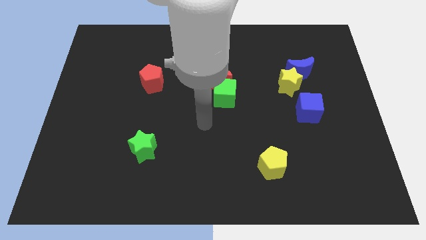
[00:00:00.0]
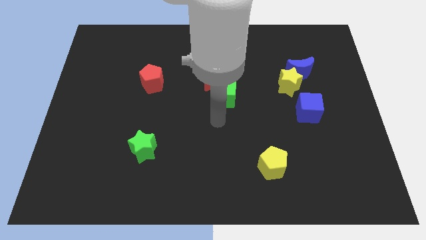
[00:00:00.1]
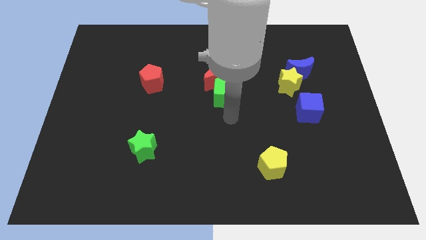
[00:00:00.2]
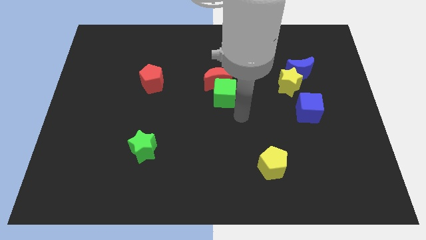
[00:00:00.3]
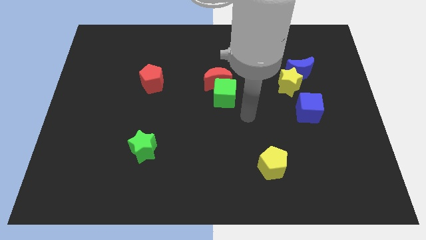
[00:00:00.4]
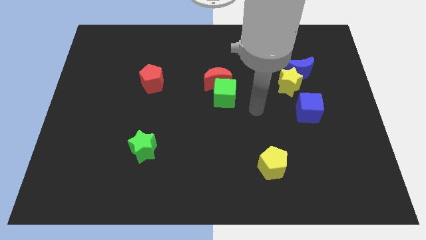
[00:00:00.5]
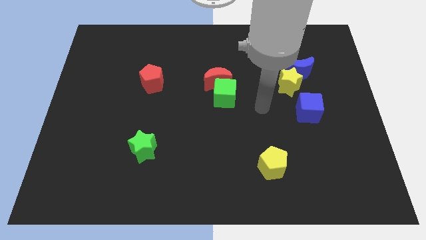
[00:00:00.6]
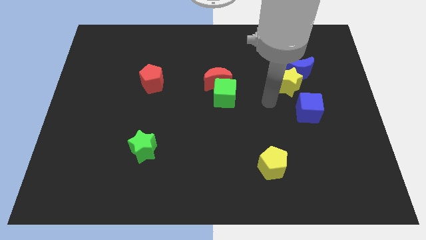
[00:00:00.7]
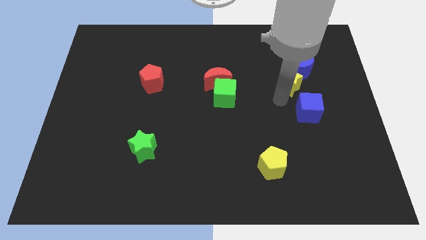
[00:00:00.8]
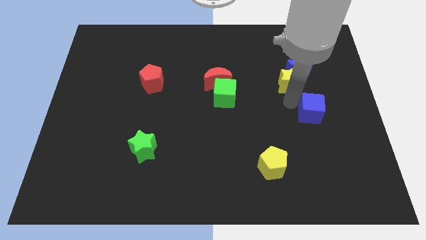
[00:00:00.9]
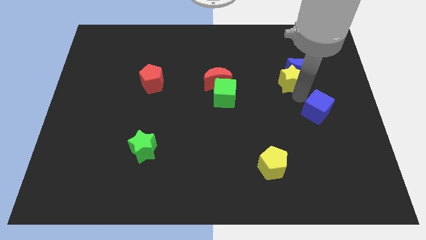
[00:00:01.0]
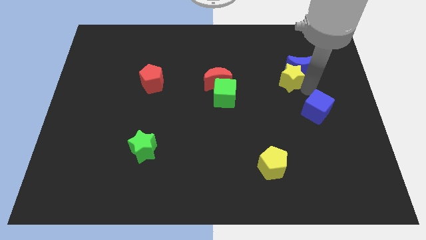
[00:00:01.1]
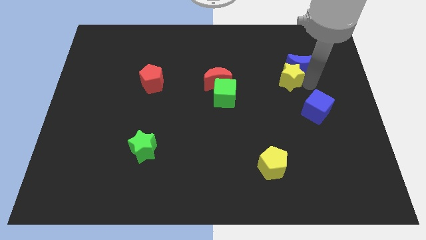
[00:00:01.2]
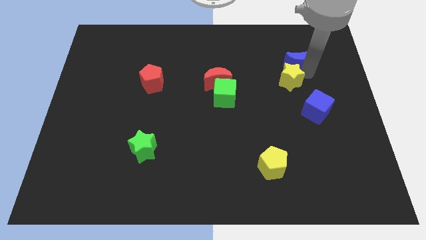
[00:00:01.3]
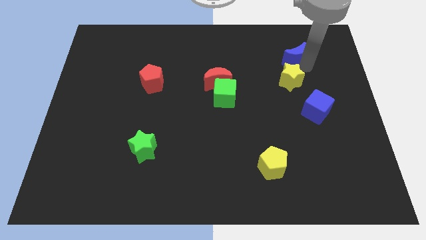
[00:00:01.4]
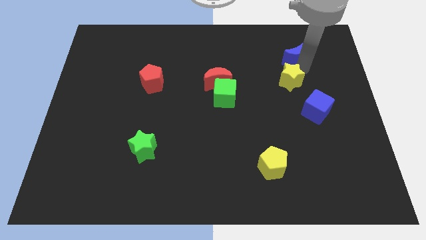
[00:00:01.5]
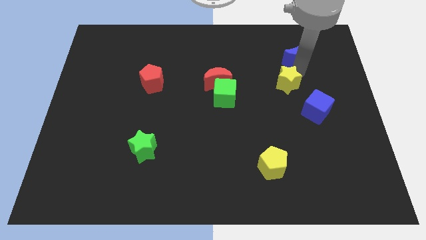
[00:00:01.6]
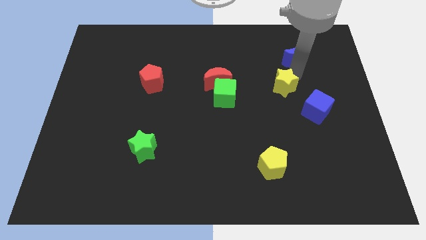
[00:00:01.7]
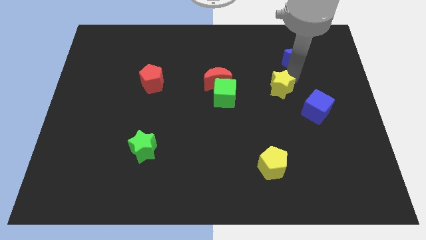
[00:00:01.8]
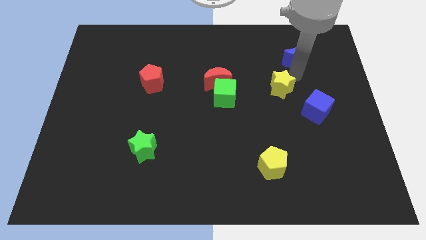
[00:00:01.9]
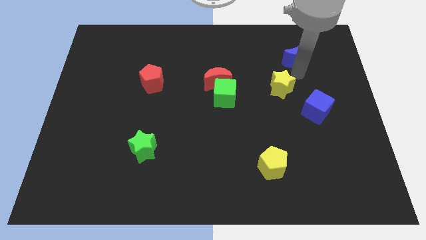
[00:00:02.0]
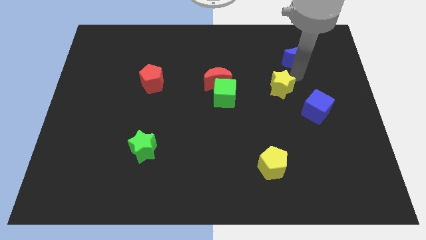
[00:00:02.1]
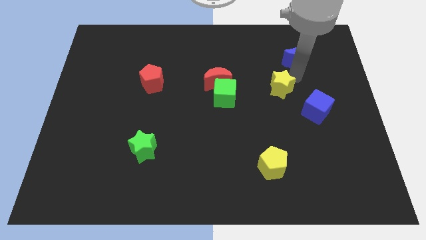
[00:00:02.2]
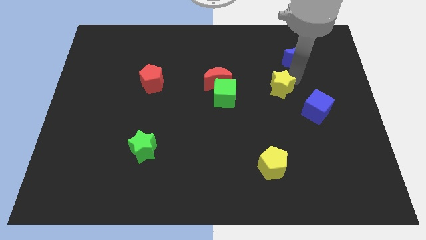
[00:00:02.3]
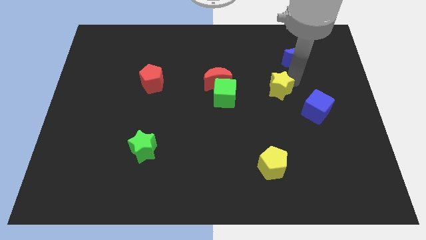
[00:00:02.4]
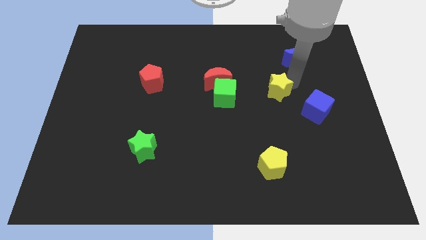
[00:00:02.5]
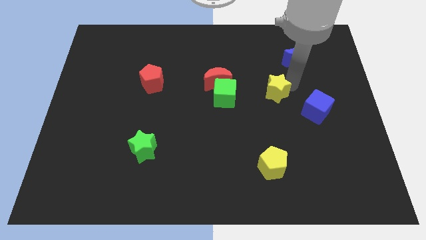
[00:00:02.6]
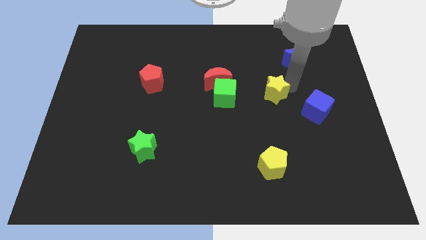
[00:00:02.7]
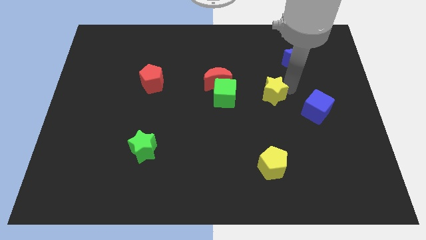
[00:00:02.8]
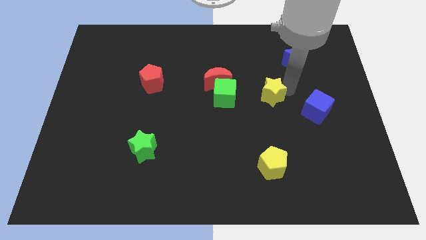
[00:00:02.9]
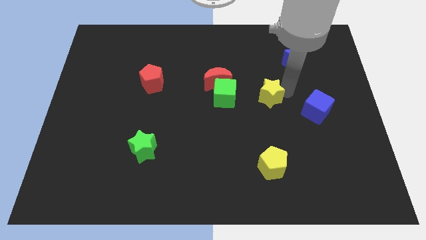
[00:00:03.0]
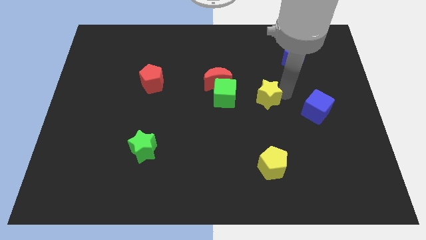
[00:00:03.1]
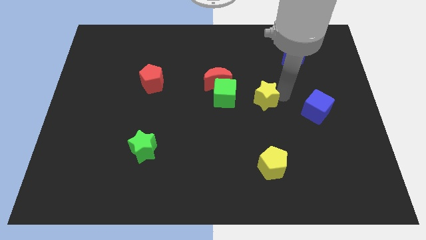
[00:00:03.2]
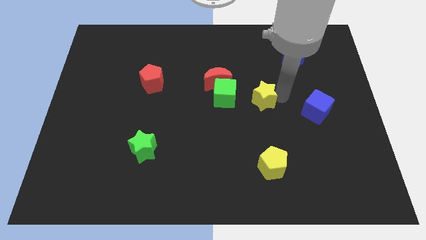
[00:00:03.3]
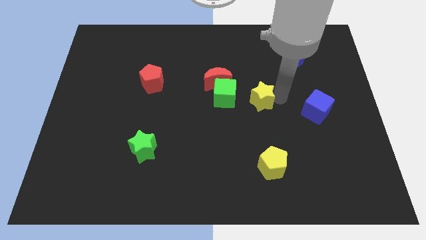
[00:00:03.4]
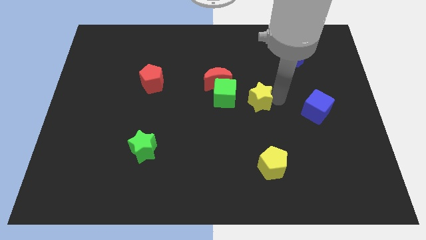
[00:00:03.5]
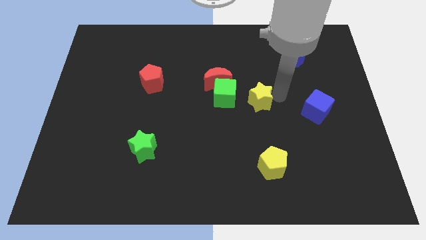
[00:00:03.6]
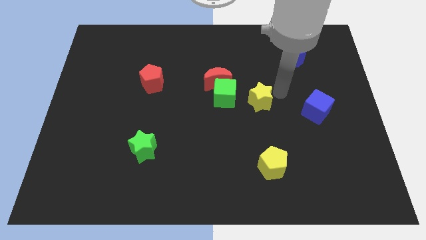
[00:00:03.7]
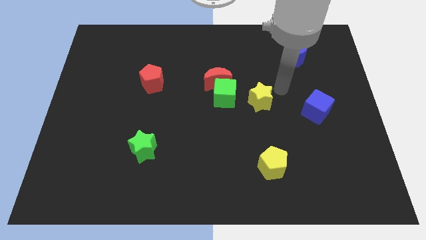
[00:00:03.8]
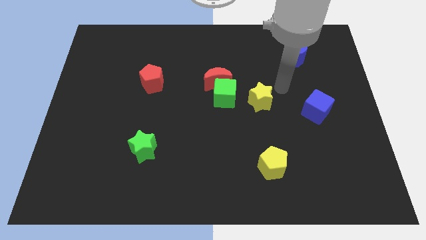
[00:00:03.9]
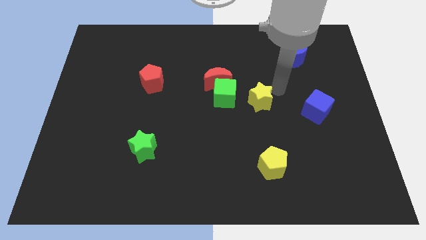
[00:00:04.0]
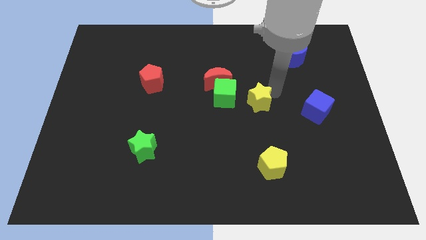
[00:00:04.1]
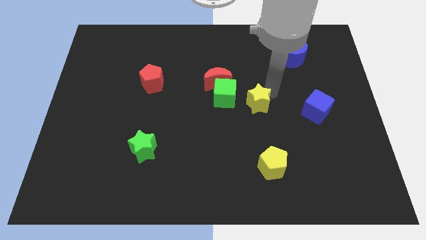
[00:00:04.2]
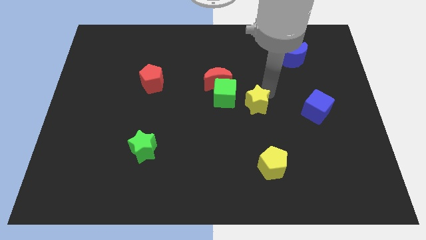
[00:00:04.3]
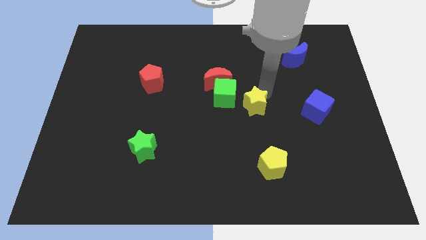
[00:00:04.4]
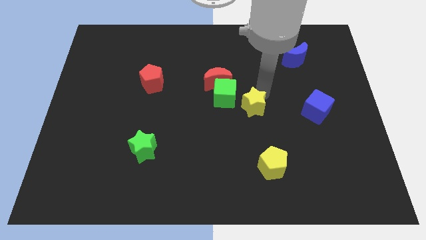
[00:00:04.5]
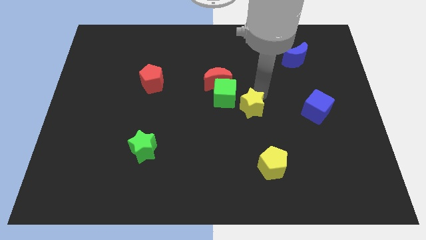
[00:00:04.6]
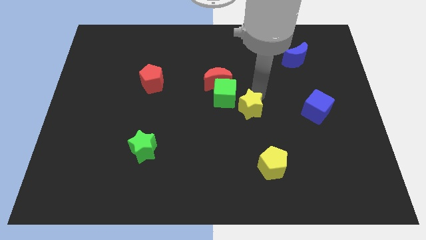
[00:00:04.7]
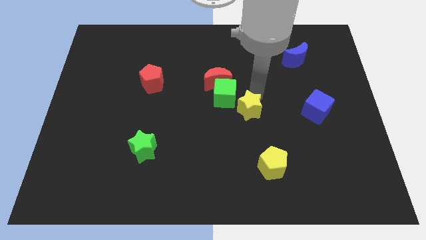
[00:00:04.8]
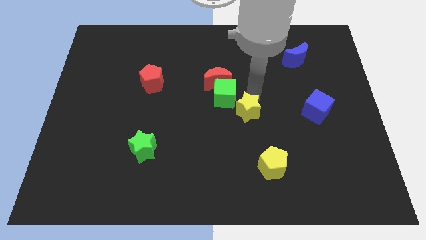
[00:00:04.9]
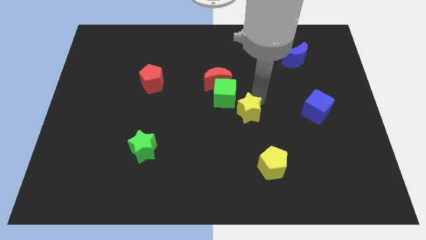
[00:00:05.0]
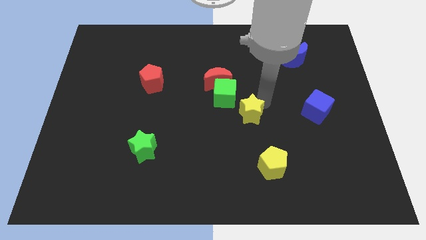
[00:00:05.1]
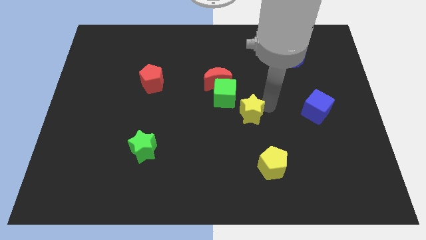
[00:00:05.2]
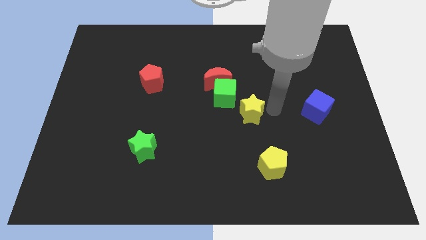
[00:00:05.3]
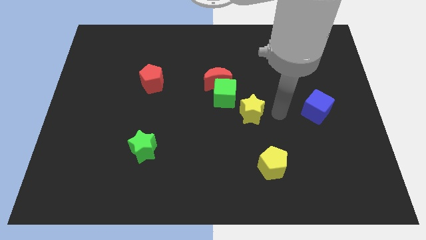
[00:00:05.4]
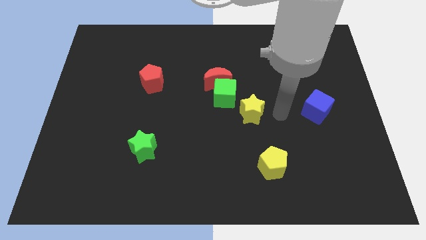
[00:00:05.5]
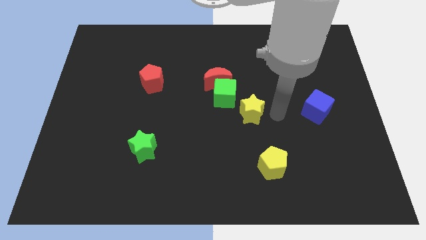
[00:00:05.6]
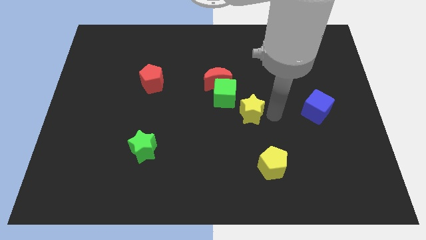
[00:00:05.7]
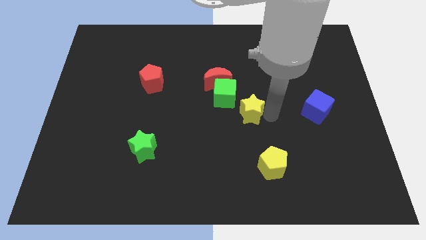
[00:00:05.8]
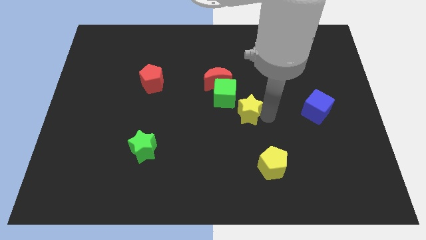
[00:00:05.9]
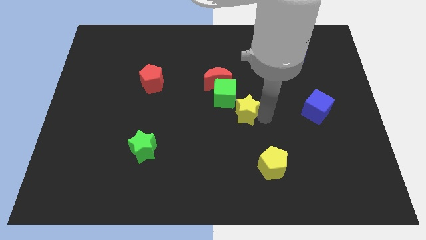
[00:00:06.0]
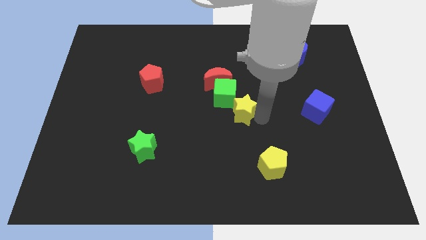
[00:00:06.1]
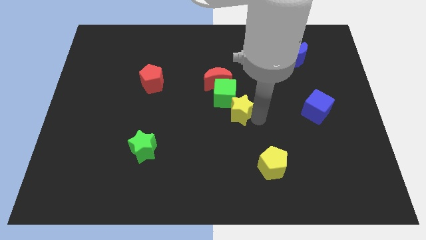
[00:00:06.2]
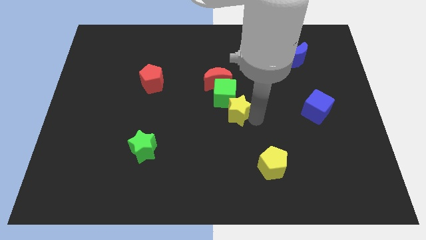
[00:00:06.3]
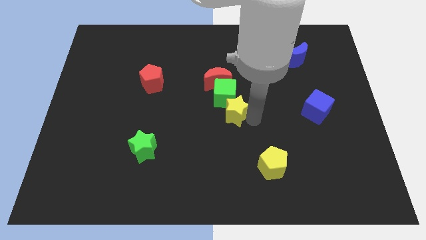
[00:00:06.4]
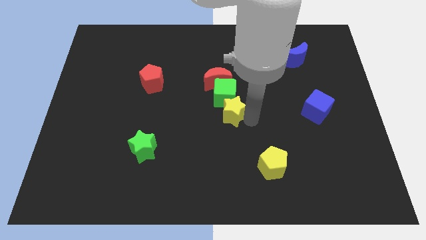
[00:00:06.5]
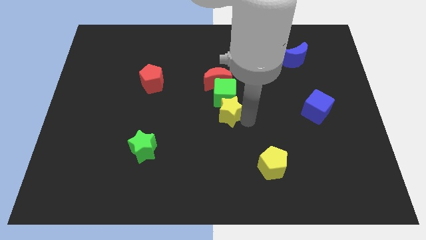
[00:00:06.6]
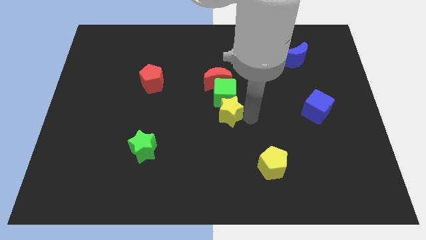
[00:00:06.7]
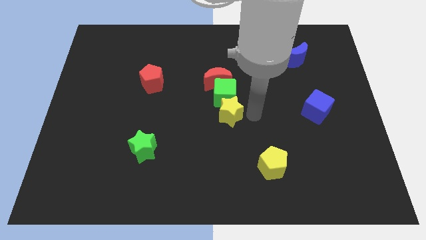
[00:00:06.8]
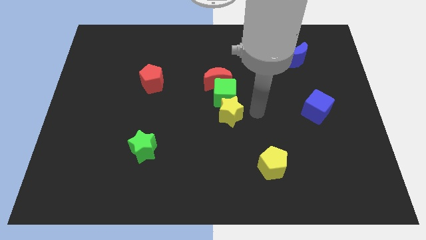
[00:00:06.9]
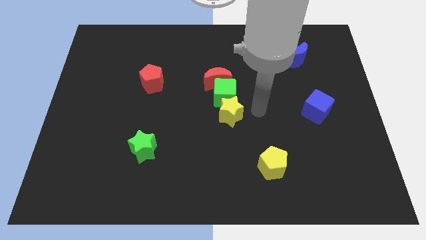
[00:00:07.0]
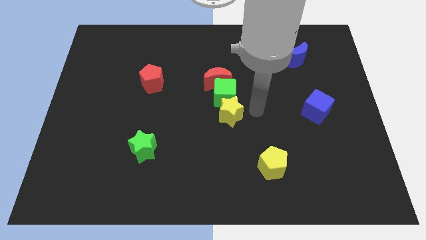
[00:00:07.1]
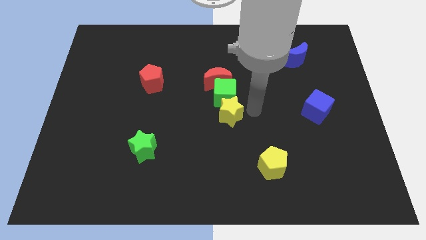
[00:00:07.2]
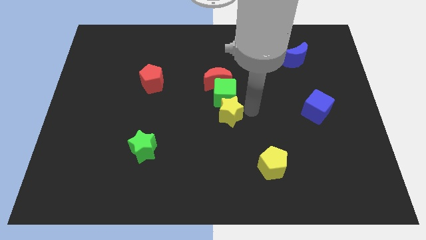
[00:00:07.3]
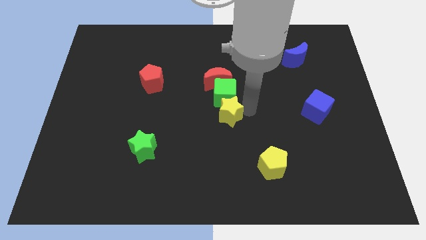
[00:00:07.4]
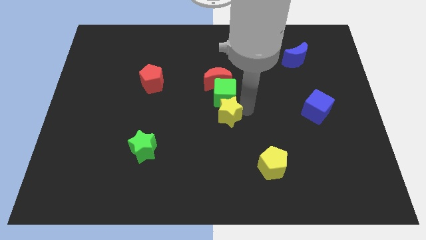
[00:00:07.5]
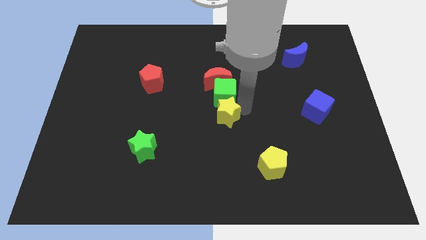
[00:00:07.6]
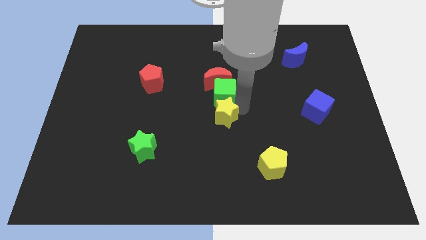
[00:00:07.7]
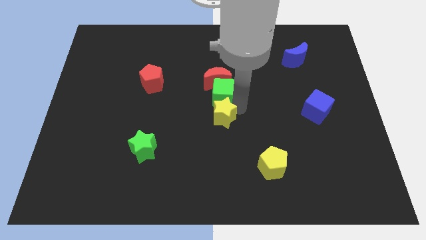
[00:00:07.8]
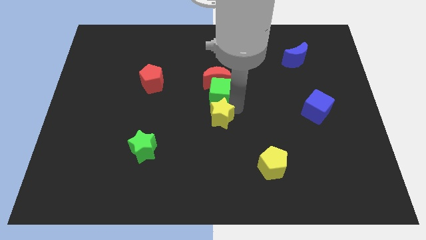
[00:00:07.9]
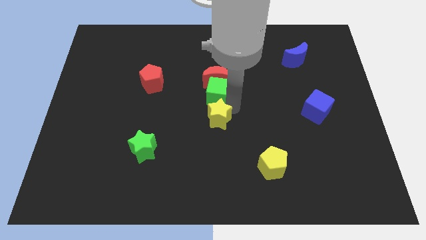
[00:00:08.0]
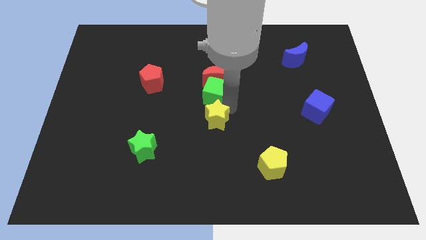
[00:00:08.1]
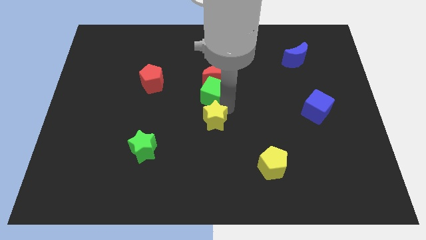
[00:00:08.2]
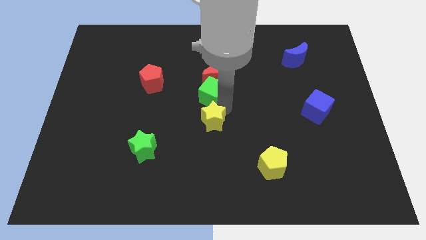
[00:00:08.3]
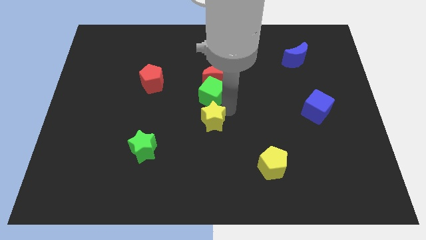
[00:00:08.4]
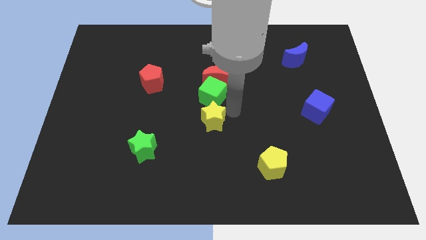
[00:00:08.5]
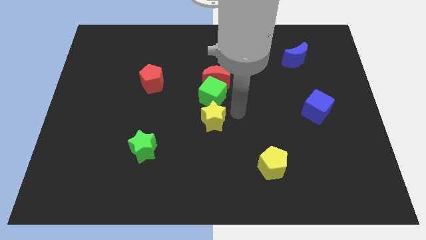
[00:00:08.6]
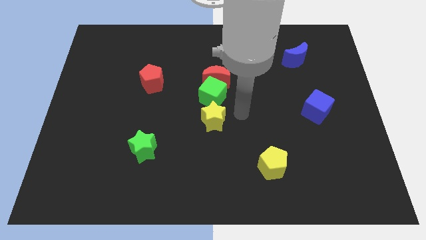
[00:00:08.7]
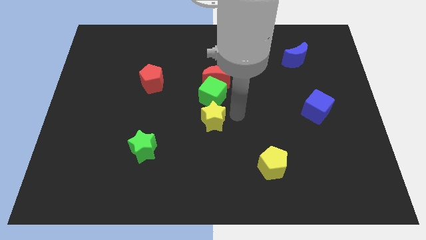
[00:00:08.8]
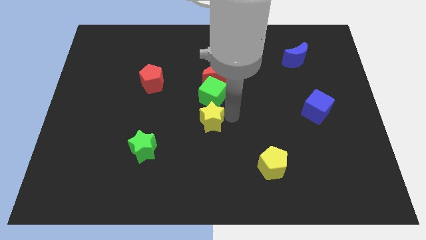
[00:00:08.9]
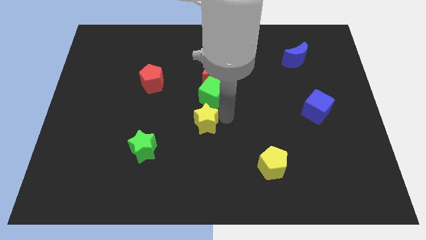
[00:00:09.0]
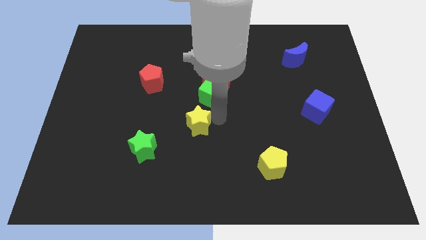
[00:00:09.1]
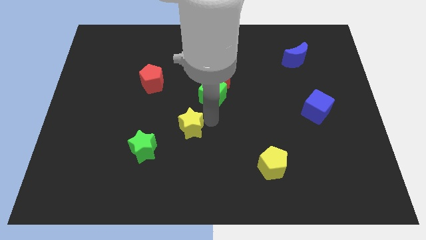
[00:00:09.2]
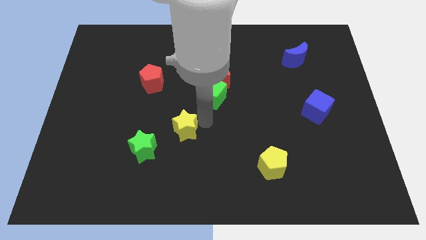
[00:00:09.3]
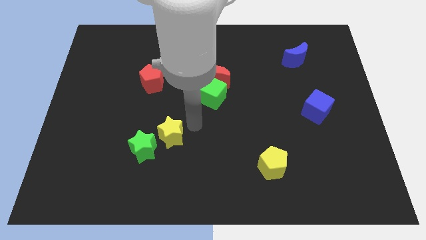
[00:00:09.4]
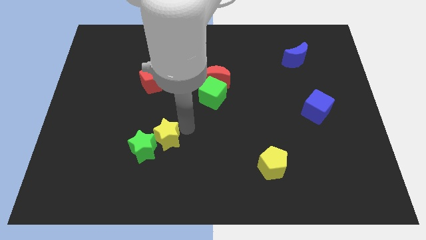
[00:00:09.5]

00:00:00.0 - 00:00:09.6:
move the yellow star next to the green star
